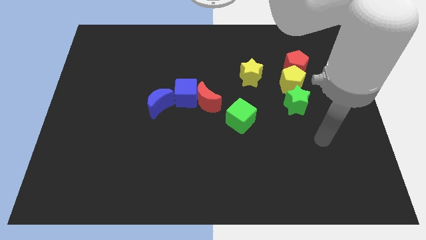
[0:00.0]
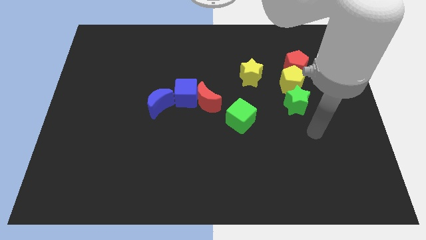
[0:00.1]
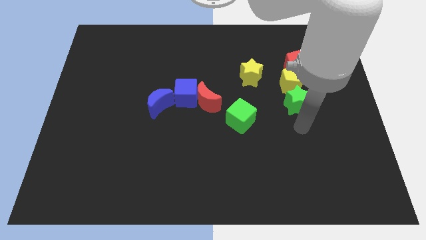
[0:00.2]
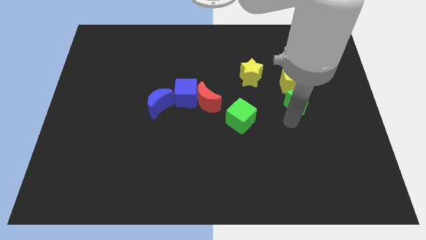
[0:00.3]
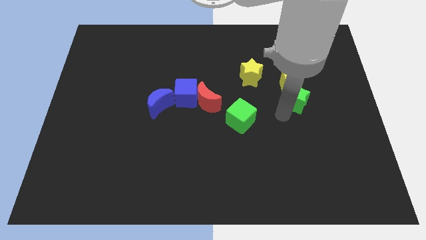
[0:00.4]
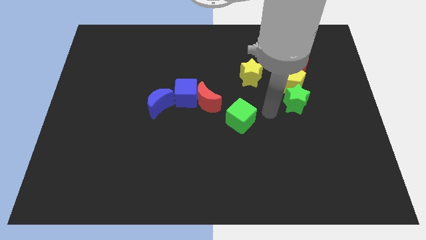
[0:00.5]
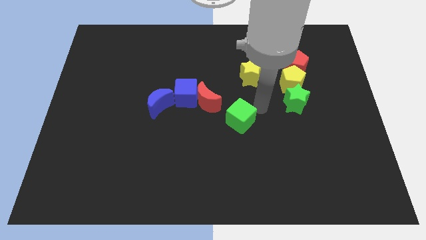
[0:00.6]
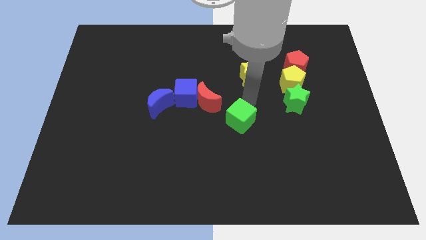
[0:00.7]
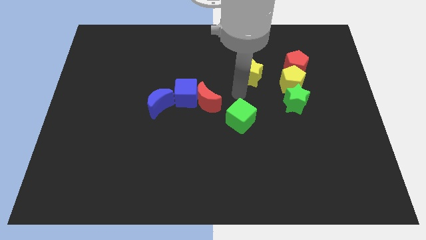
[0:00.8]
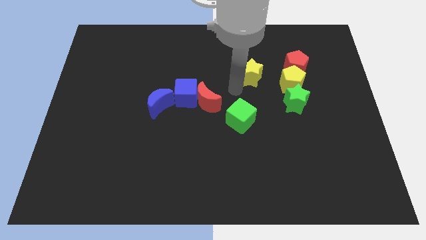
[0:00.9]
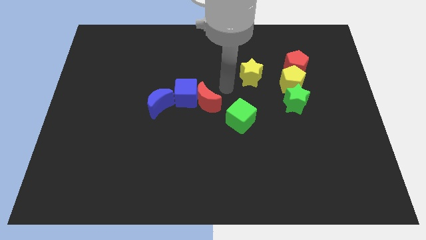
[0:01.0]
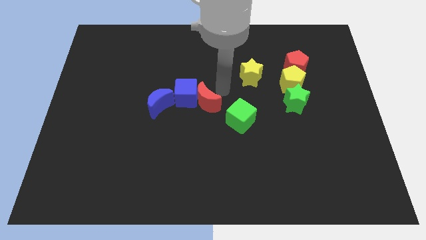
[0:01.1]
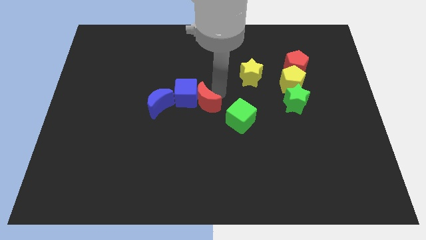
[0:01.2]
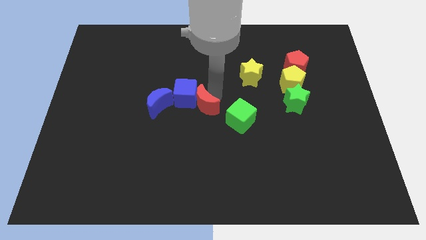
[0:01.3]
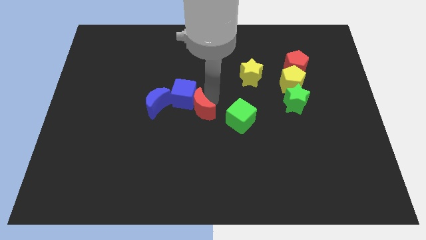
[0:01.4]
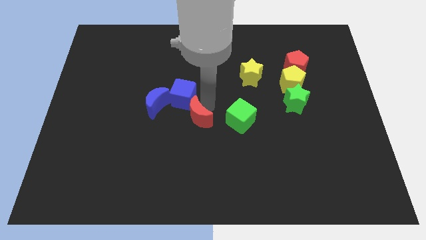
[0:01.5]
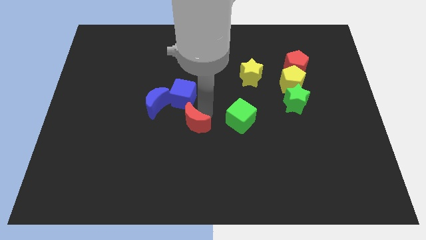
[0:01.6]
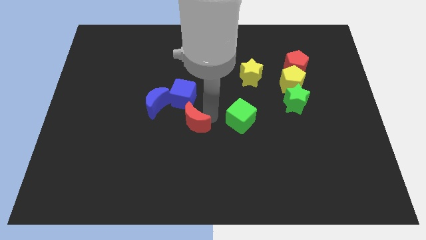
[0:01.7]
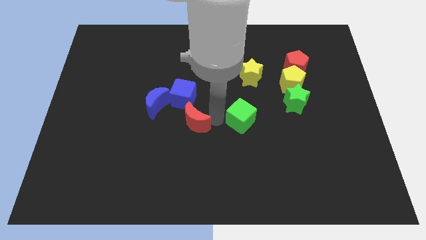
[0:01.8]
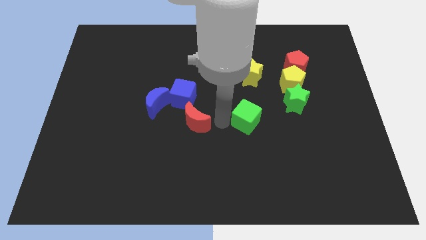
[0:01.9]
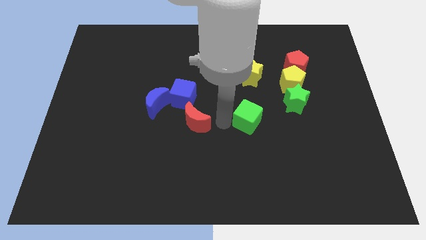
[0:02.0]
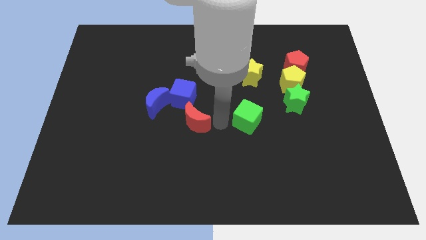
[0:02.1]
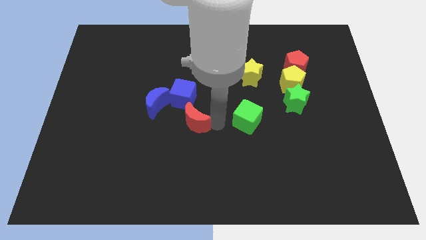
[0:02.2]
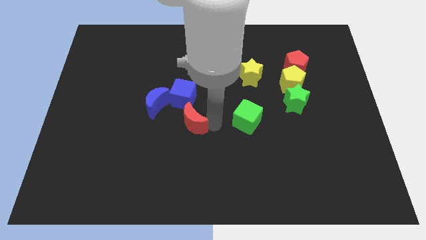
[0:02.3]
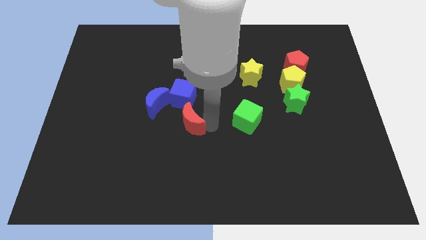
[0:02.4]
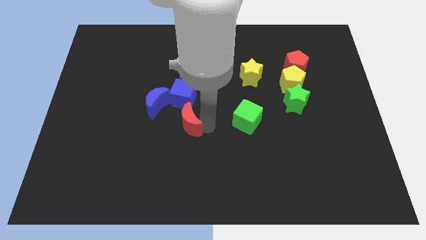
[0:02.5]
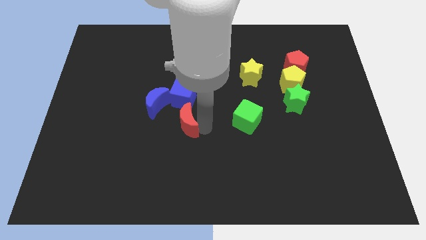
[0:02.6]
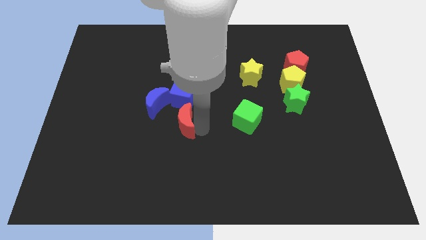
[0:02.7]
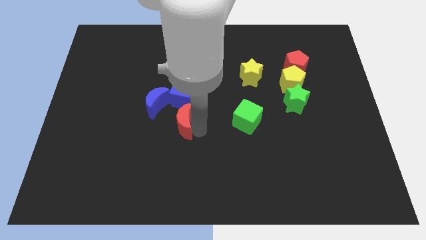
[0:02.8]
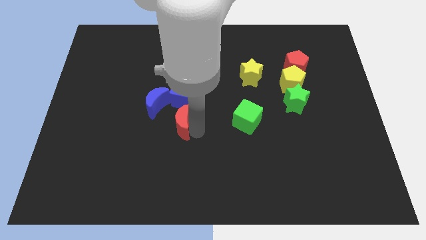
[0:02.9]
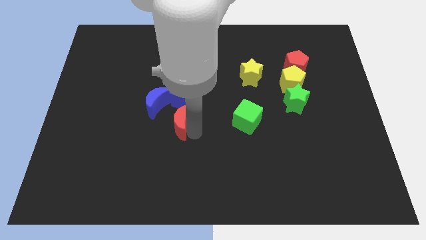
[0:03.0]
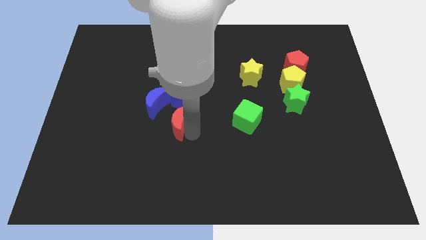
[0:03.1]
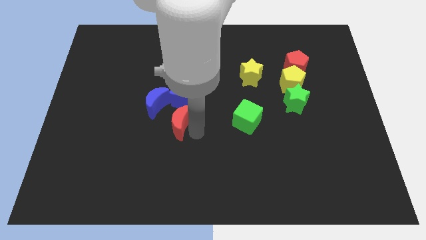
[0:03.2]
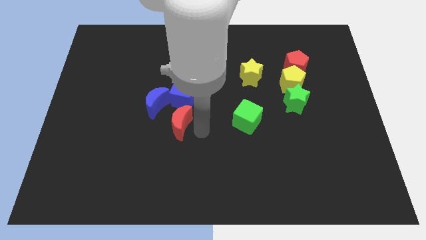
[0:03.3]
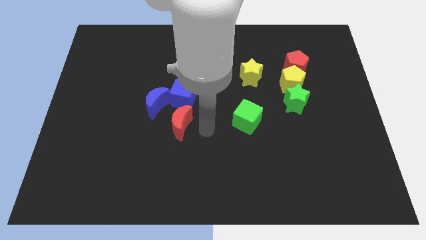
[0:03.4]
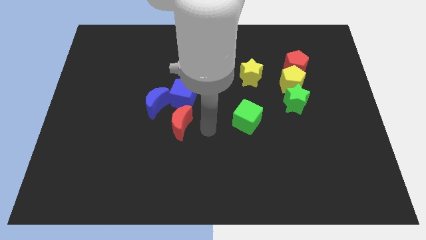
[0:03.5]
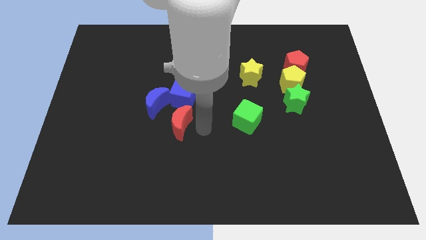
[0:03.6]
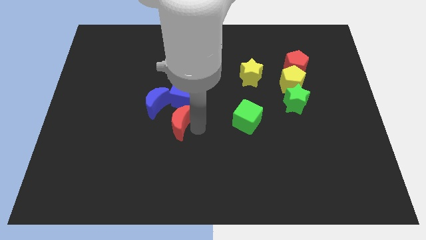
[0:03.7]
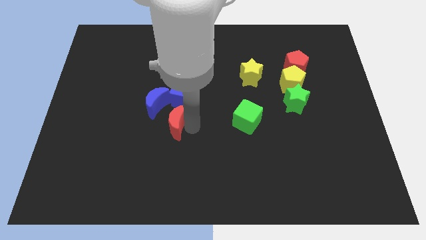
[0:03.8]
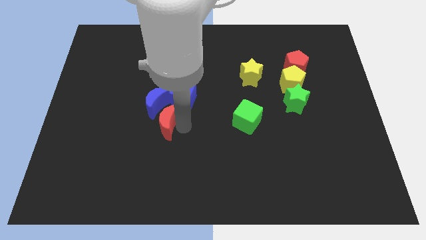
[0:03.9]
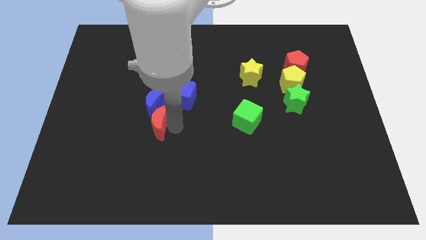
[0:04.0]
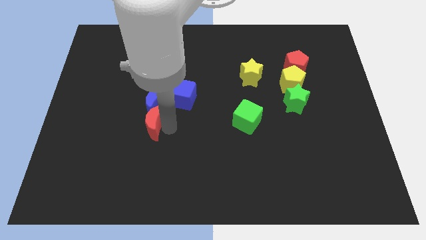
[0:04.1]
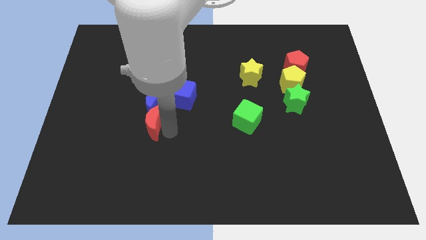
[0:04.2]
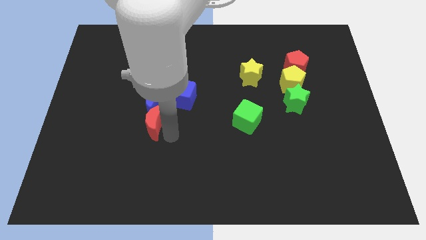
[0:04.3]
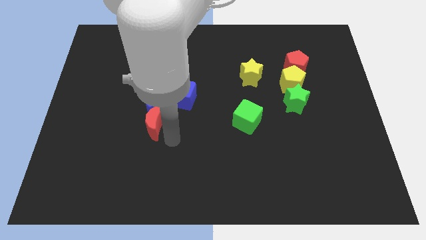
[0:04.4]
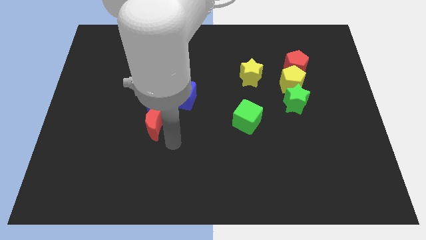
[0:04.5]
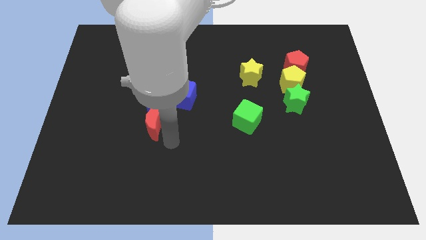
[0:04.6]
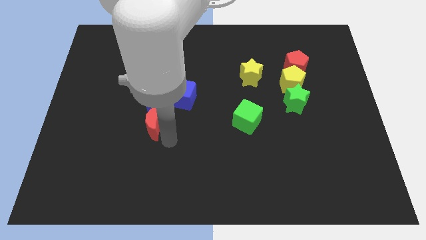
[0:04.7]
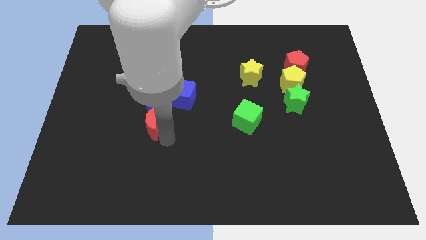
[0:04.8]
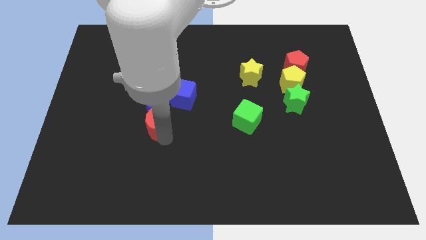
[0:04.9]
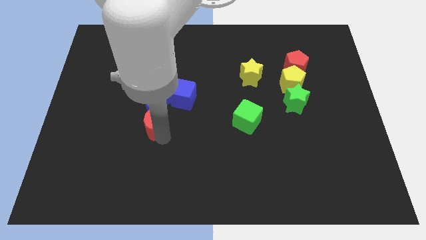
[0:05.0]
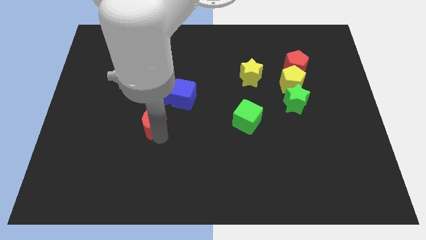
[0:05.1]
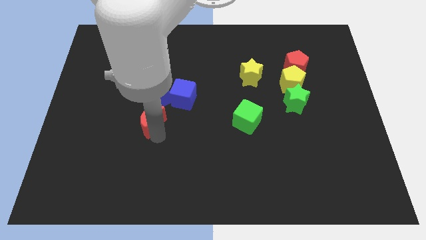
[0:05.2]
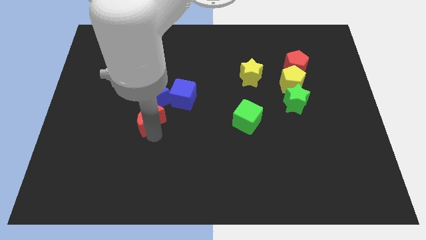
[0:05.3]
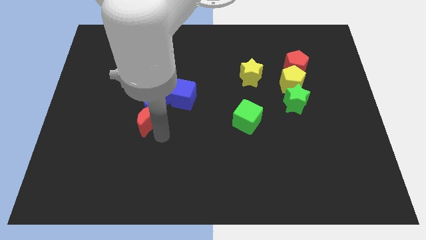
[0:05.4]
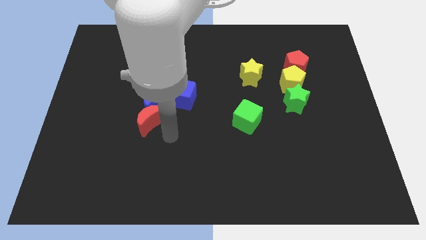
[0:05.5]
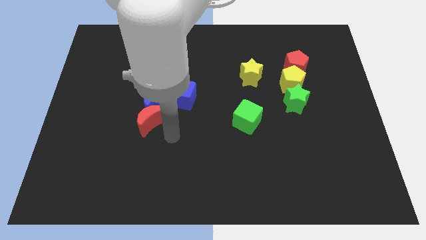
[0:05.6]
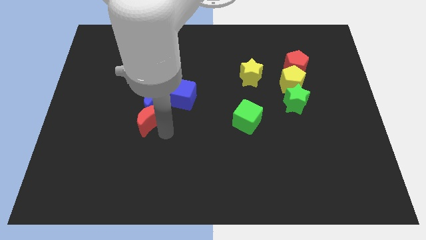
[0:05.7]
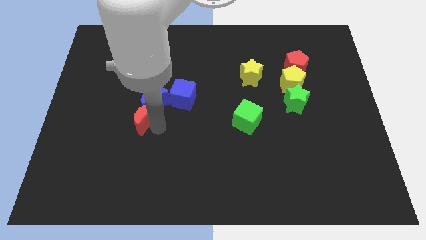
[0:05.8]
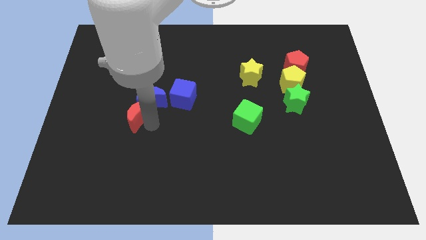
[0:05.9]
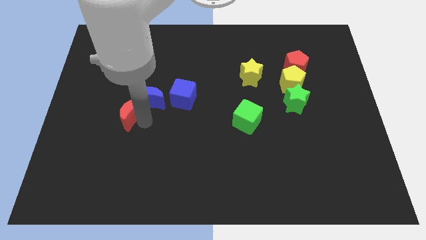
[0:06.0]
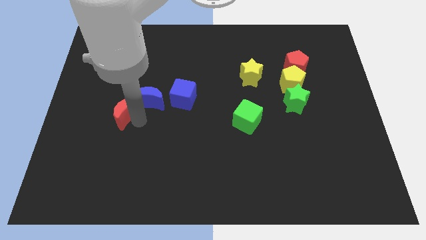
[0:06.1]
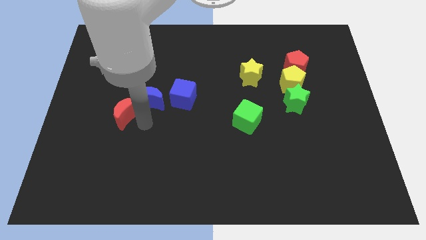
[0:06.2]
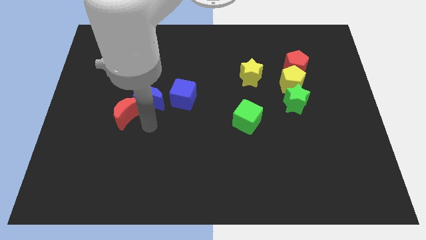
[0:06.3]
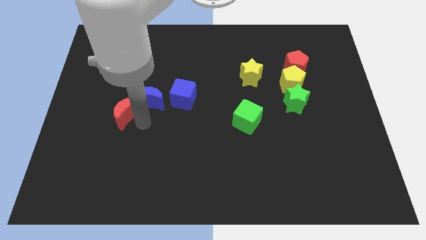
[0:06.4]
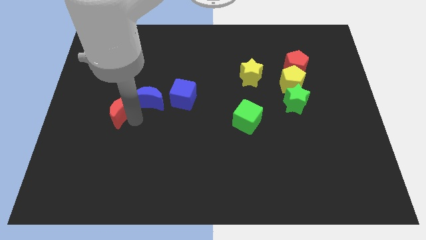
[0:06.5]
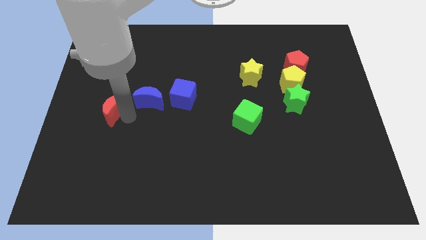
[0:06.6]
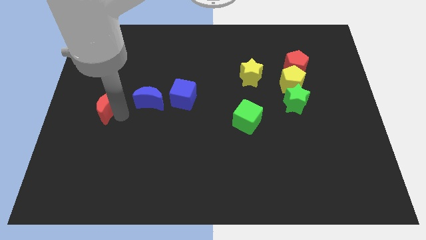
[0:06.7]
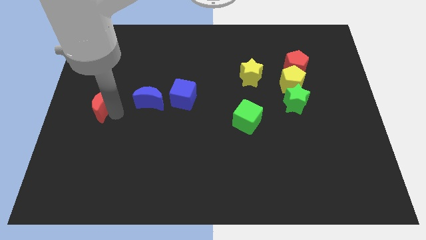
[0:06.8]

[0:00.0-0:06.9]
push the red moon to the center left
